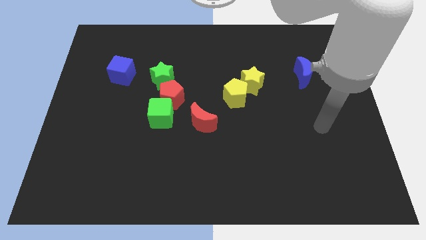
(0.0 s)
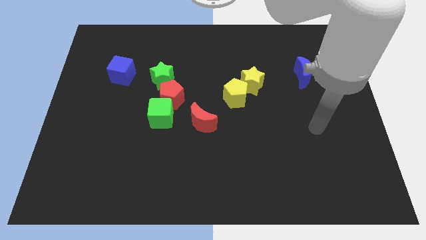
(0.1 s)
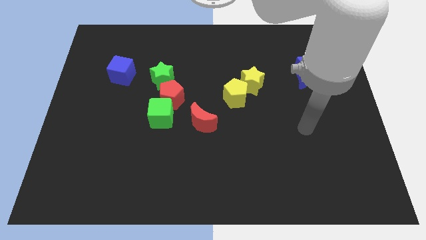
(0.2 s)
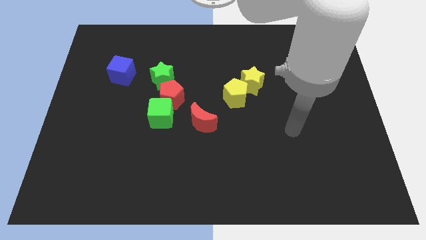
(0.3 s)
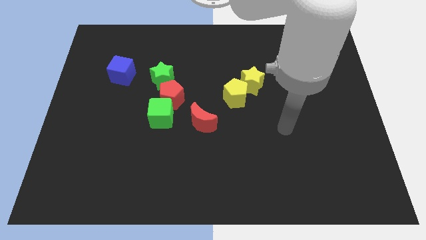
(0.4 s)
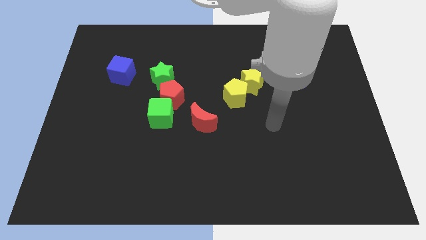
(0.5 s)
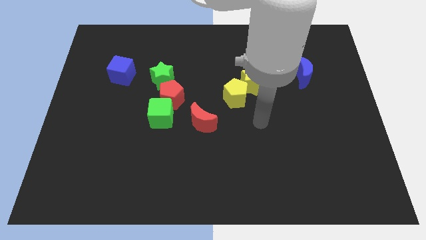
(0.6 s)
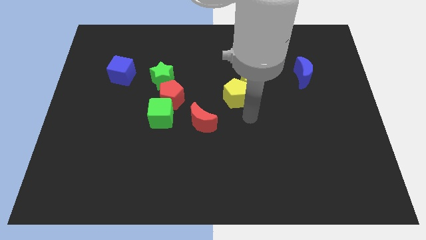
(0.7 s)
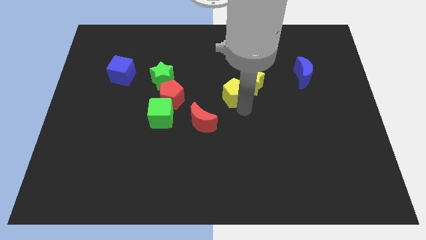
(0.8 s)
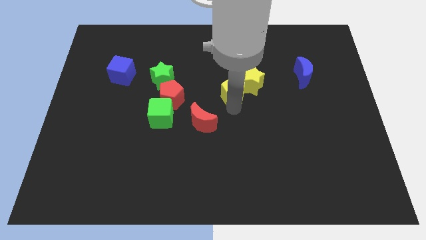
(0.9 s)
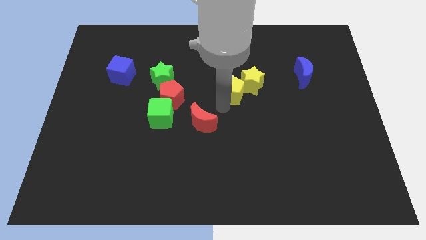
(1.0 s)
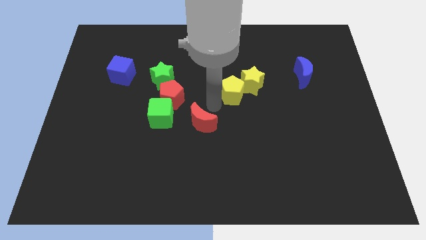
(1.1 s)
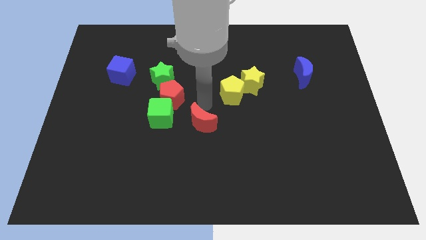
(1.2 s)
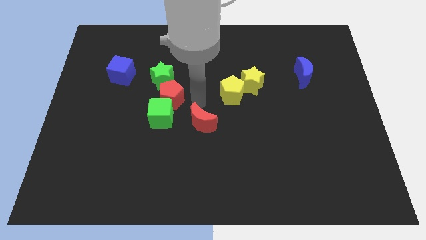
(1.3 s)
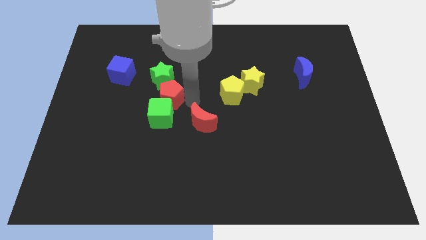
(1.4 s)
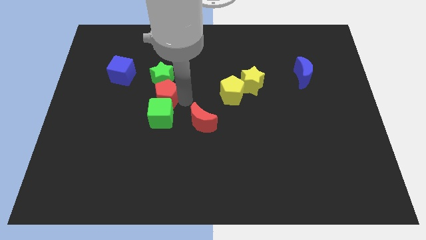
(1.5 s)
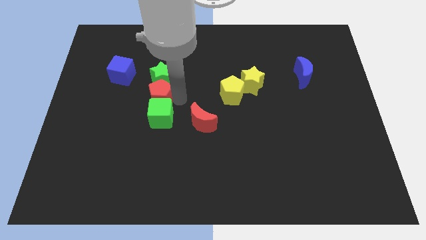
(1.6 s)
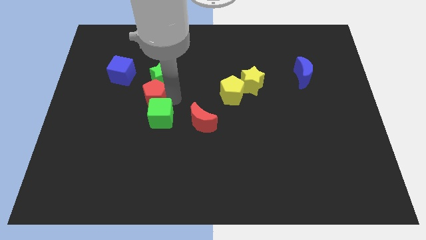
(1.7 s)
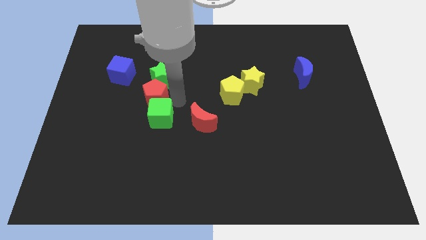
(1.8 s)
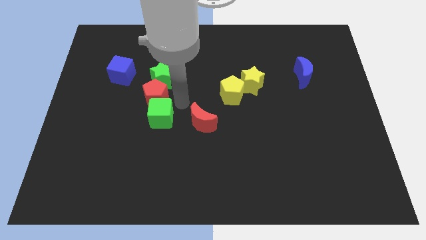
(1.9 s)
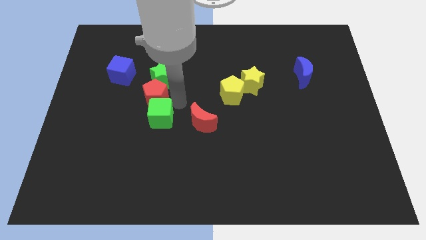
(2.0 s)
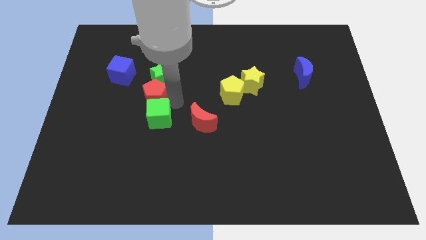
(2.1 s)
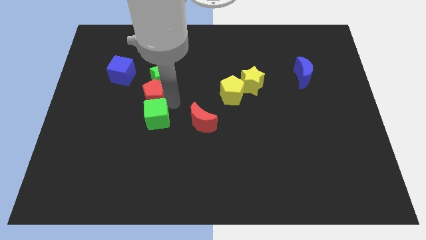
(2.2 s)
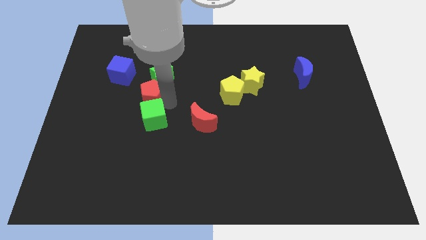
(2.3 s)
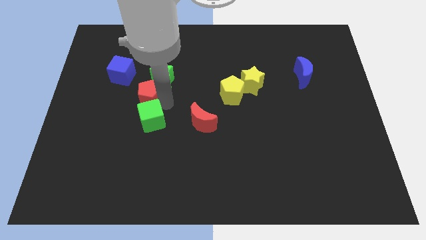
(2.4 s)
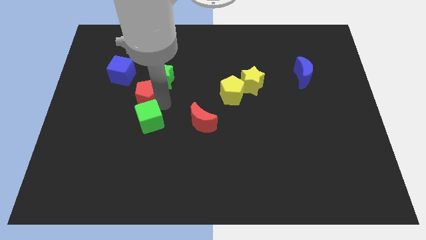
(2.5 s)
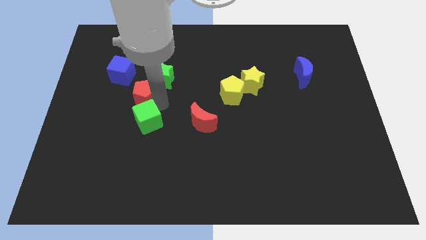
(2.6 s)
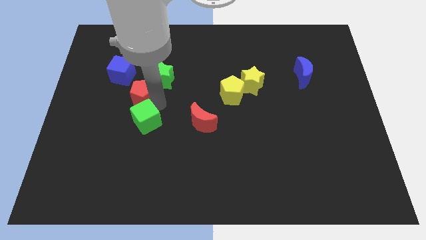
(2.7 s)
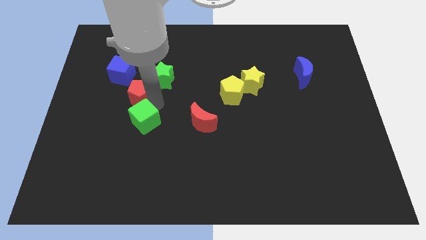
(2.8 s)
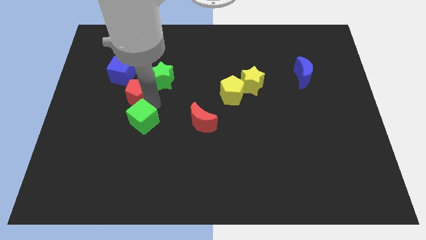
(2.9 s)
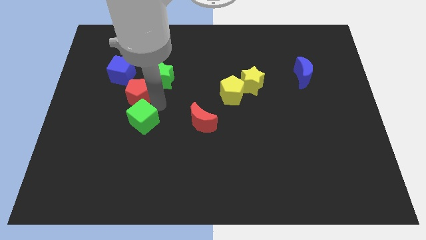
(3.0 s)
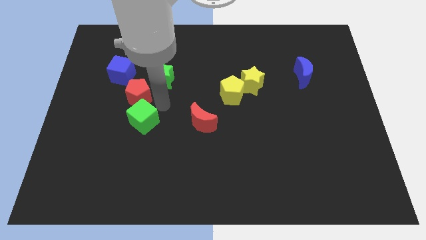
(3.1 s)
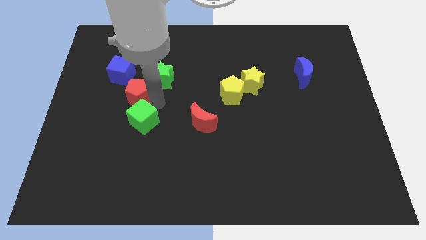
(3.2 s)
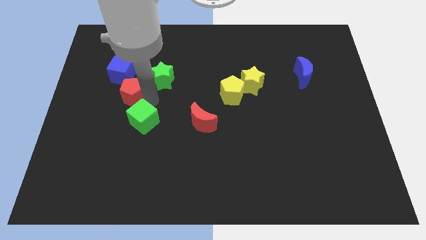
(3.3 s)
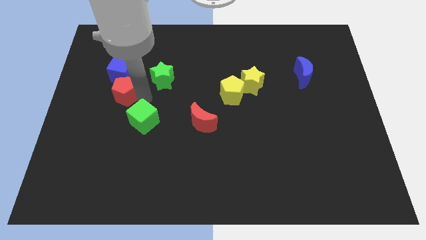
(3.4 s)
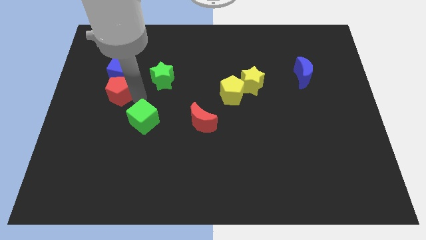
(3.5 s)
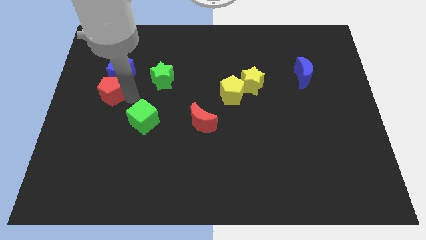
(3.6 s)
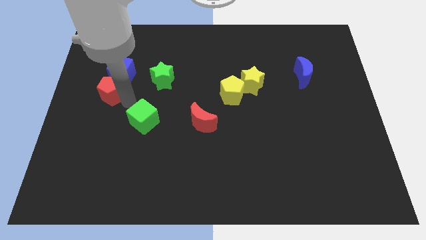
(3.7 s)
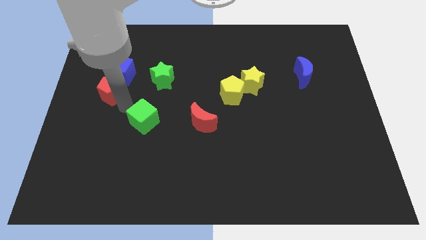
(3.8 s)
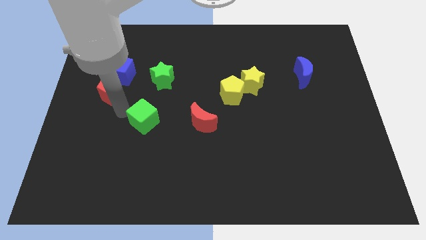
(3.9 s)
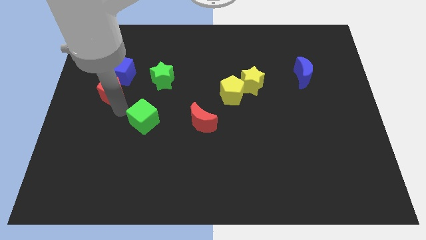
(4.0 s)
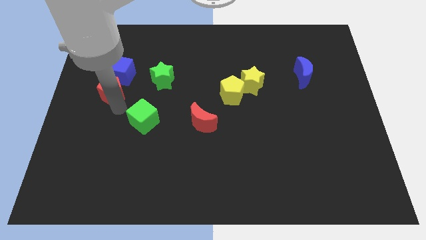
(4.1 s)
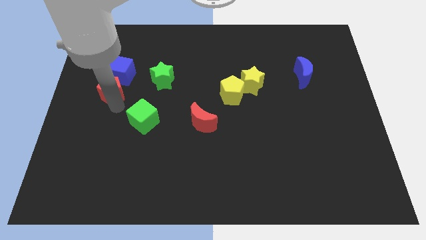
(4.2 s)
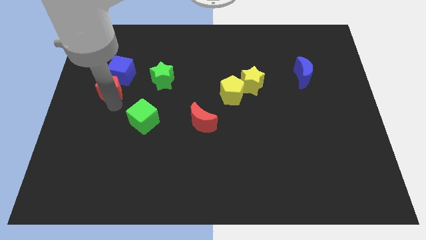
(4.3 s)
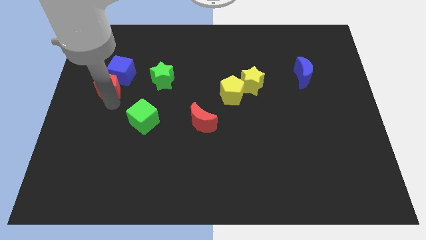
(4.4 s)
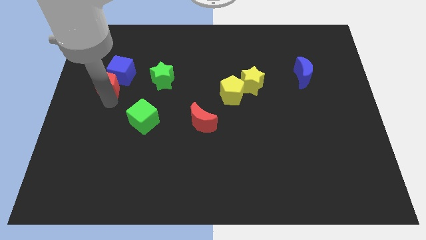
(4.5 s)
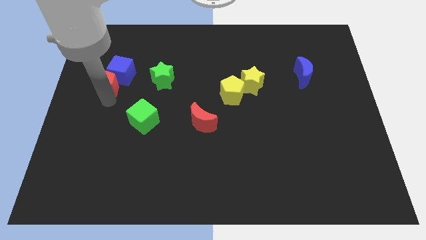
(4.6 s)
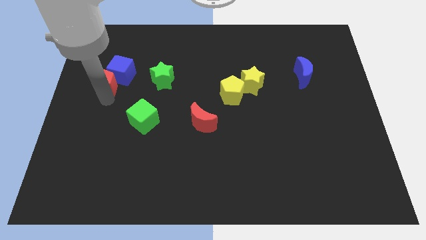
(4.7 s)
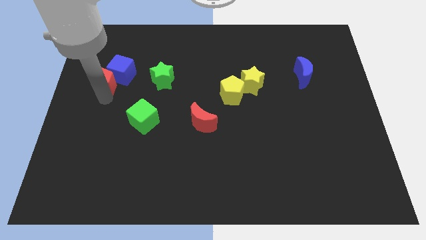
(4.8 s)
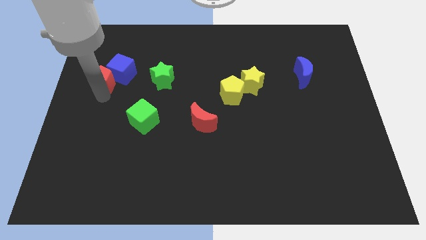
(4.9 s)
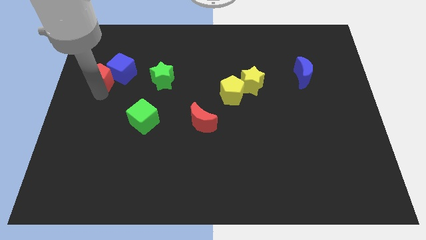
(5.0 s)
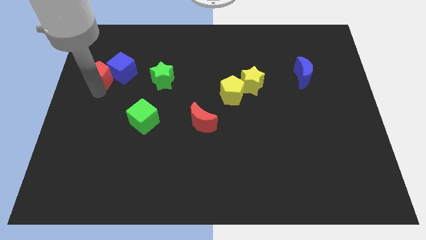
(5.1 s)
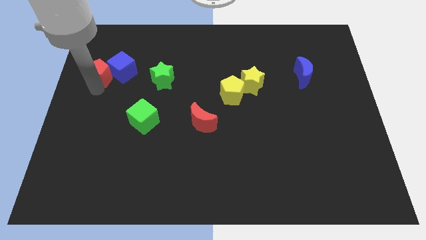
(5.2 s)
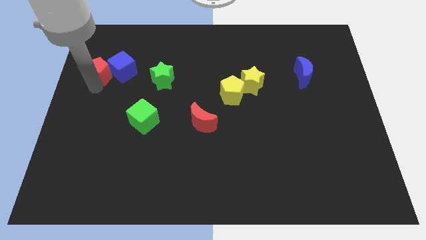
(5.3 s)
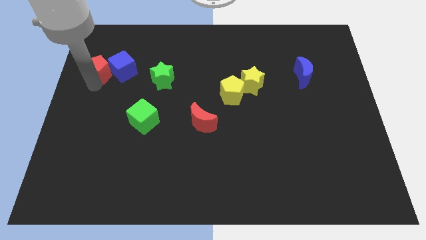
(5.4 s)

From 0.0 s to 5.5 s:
put the red pentagon to the top left of the blue cube

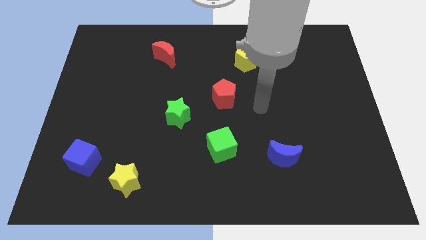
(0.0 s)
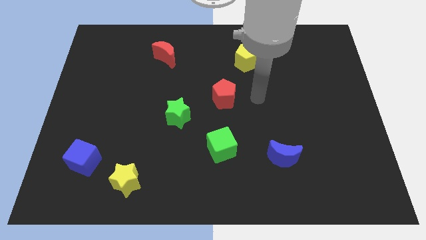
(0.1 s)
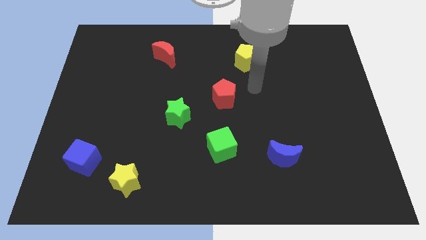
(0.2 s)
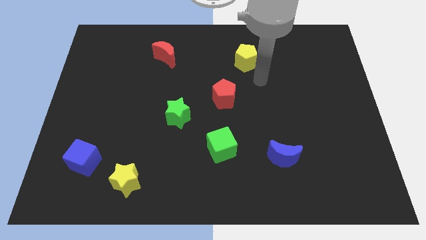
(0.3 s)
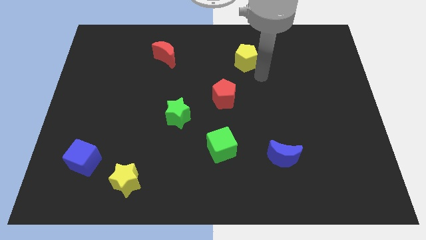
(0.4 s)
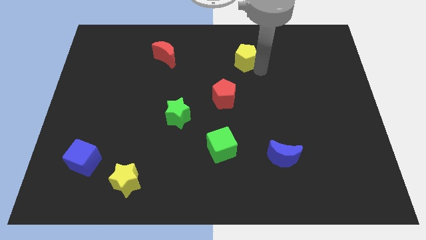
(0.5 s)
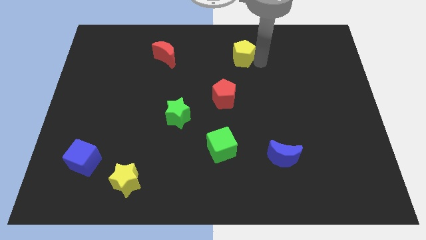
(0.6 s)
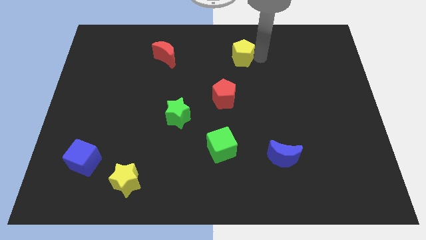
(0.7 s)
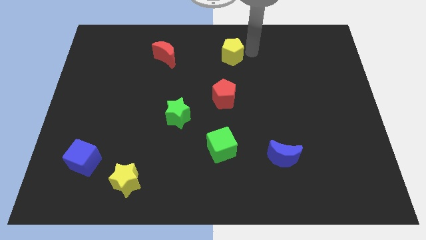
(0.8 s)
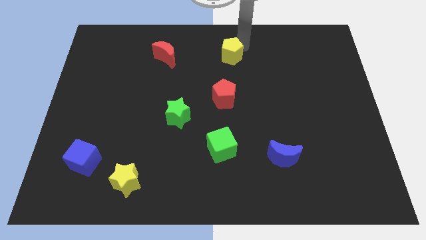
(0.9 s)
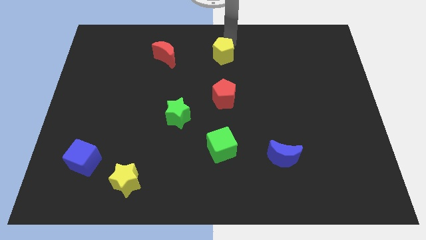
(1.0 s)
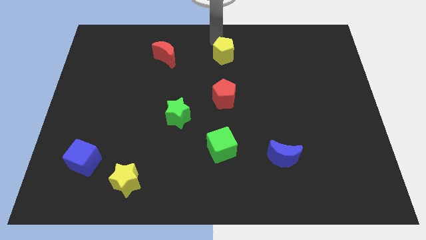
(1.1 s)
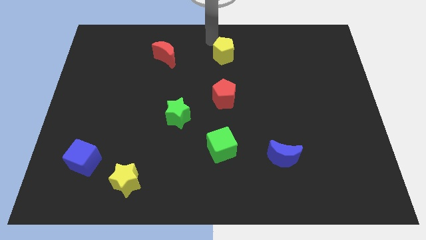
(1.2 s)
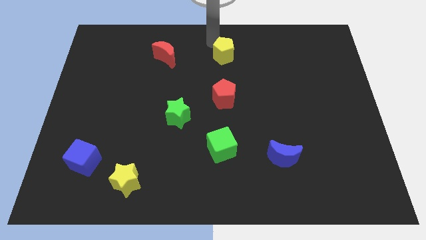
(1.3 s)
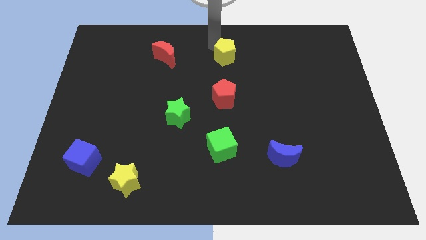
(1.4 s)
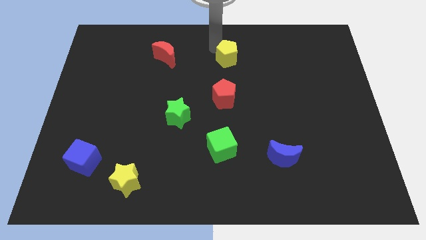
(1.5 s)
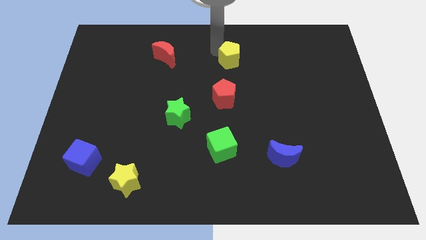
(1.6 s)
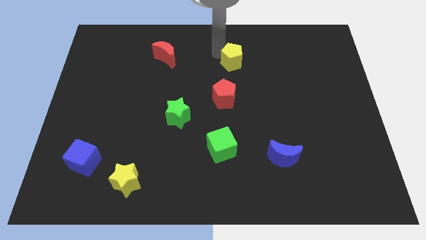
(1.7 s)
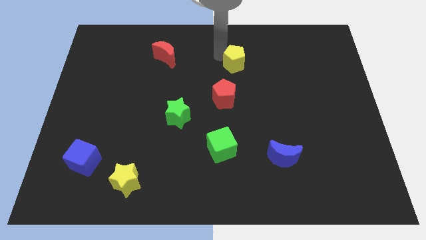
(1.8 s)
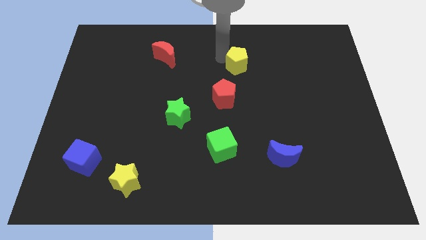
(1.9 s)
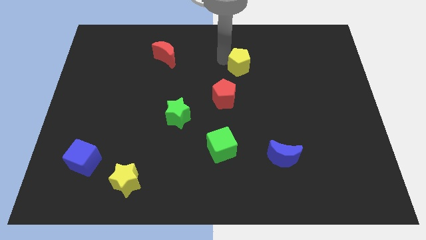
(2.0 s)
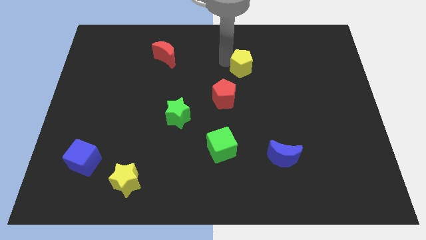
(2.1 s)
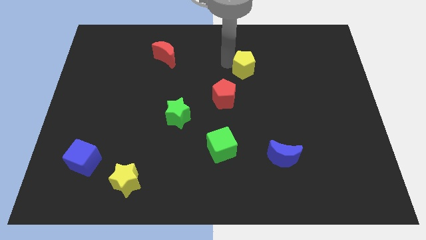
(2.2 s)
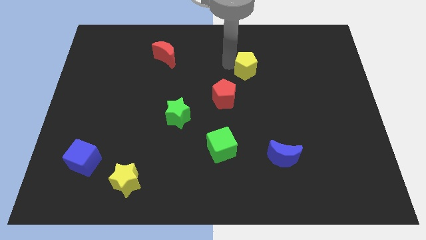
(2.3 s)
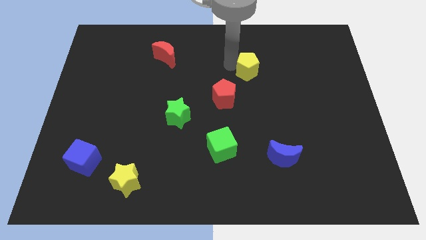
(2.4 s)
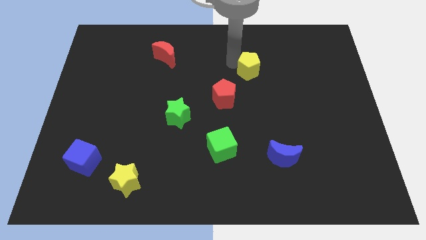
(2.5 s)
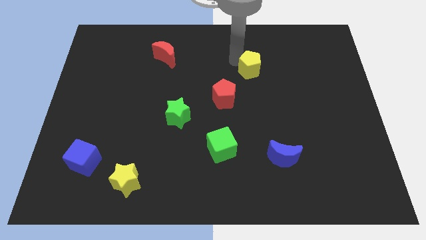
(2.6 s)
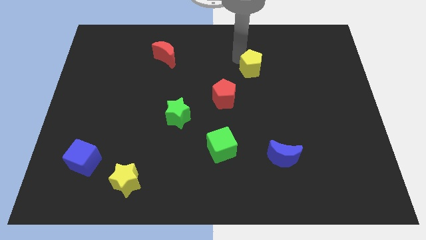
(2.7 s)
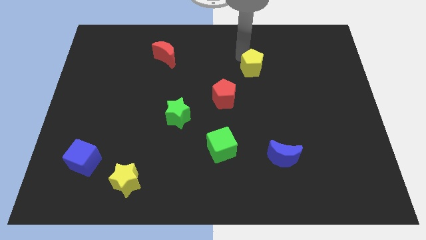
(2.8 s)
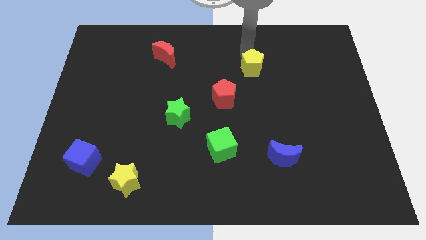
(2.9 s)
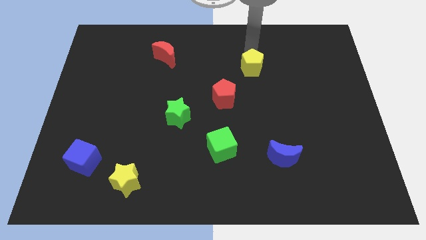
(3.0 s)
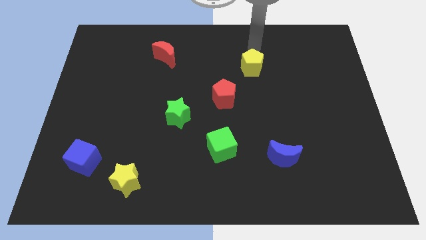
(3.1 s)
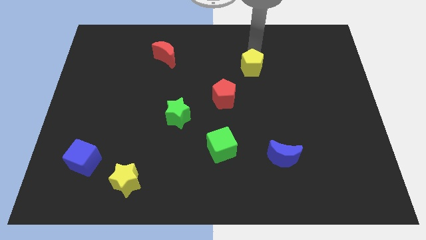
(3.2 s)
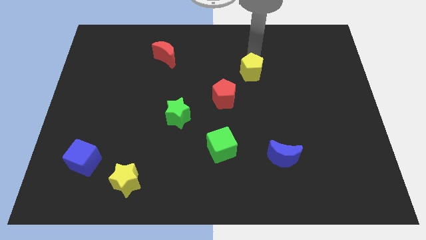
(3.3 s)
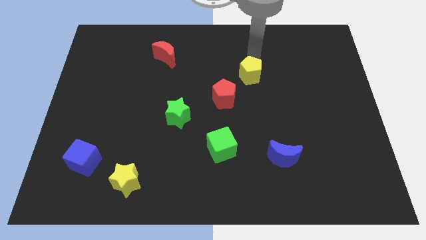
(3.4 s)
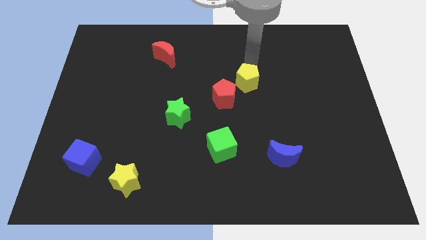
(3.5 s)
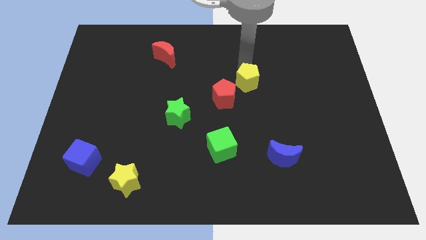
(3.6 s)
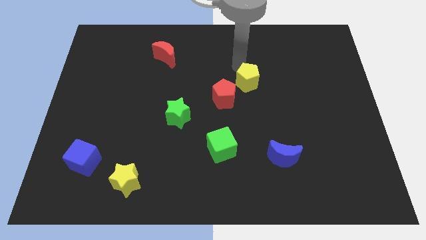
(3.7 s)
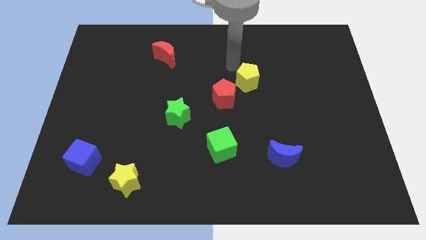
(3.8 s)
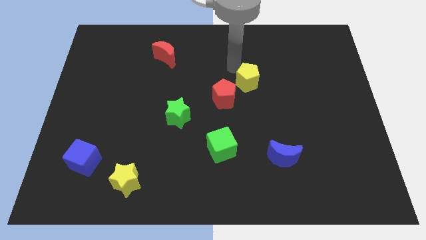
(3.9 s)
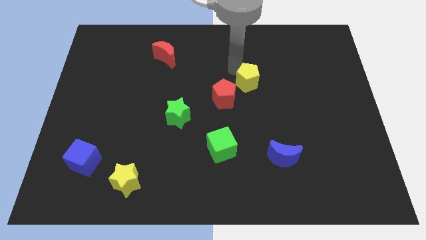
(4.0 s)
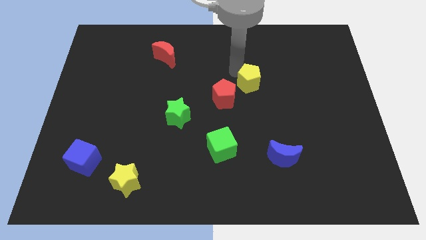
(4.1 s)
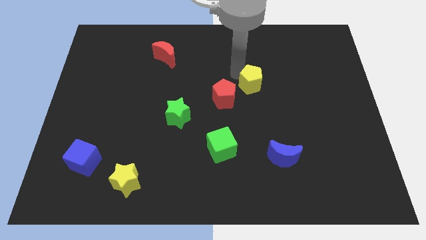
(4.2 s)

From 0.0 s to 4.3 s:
push the yellow pentagon to the right of the red pentagon
